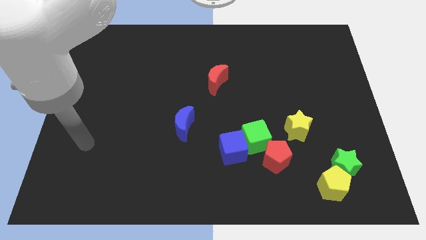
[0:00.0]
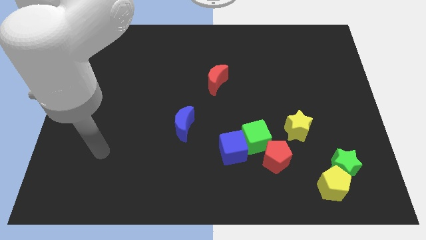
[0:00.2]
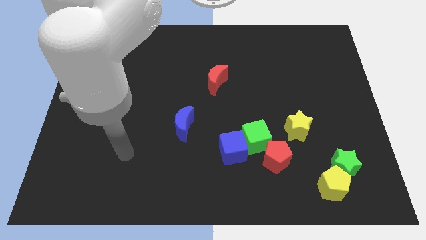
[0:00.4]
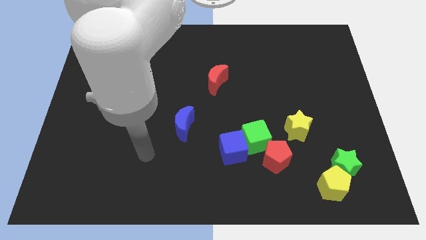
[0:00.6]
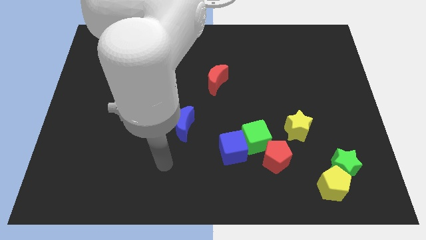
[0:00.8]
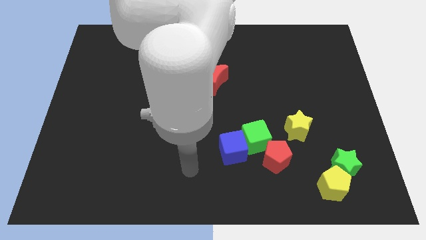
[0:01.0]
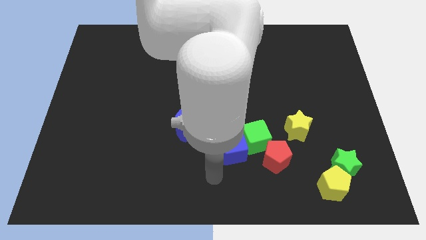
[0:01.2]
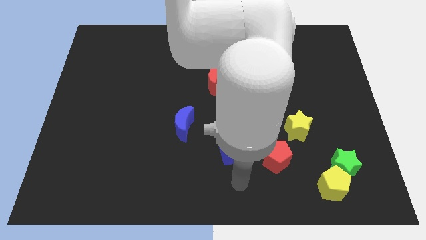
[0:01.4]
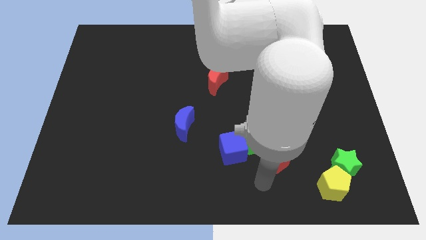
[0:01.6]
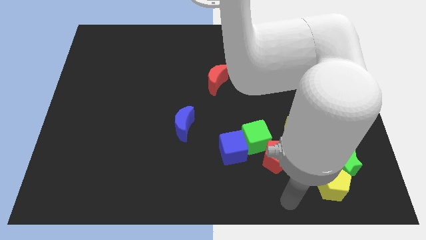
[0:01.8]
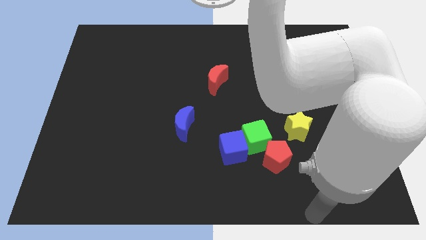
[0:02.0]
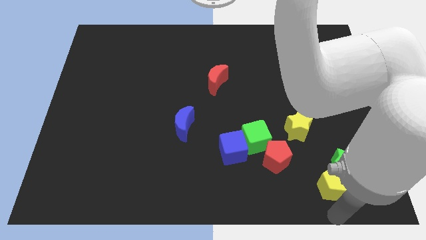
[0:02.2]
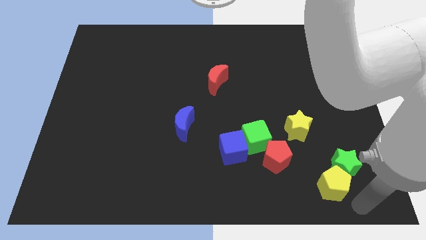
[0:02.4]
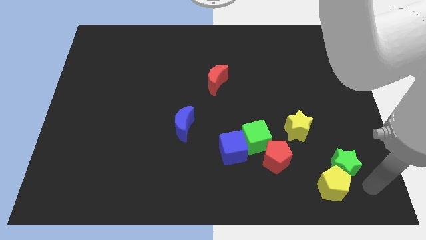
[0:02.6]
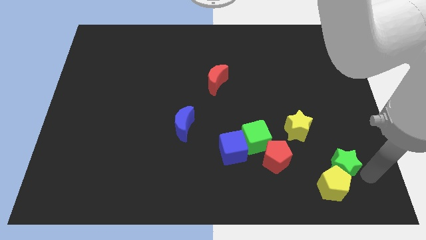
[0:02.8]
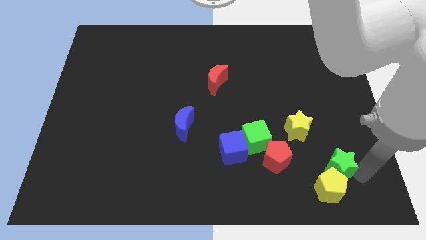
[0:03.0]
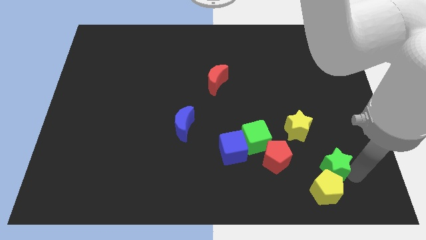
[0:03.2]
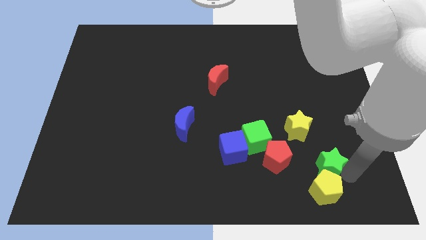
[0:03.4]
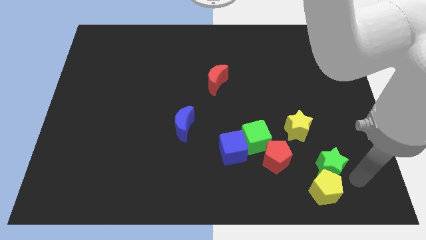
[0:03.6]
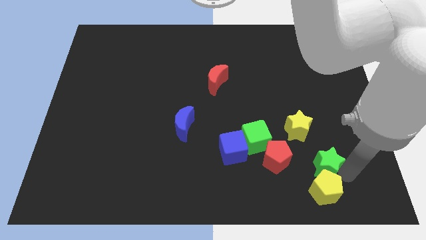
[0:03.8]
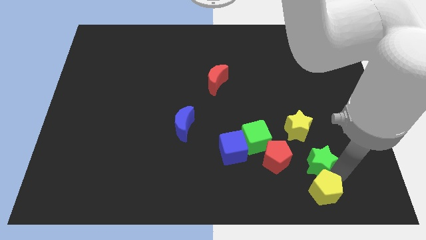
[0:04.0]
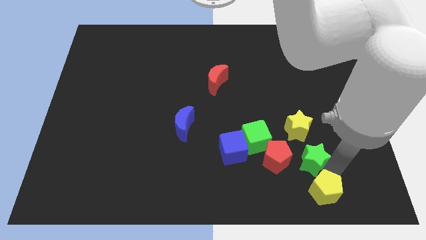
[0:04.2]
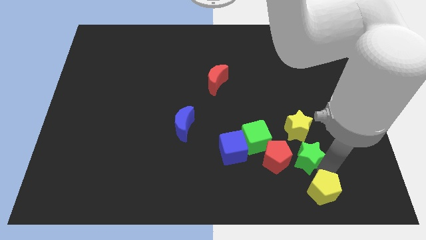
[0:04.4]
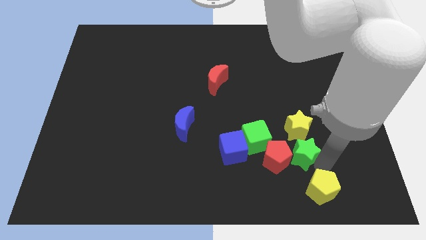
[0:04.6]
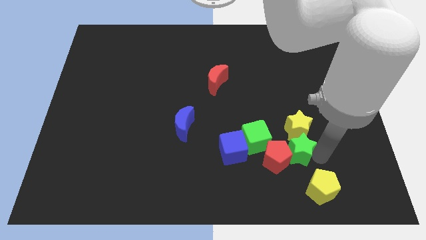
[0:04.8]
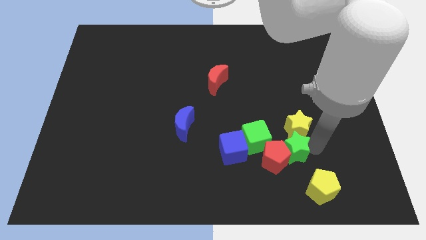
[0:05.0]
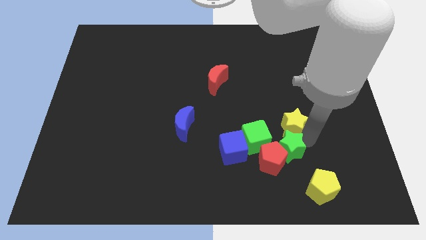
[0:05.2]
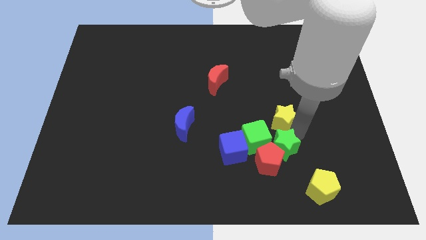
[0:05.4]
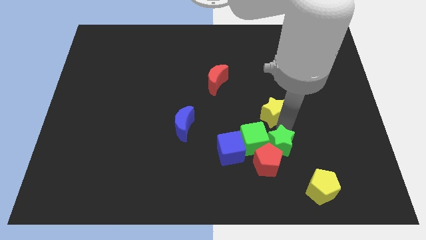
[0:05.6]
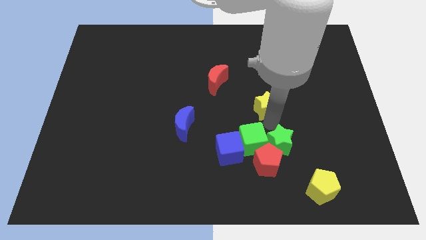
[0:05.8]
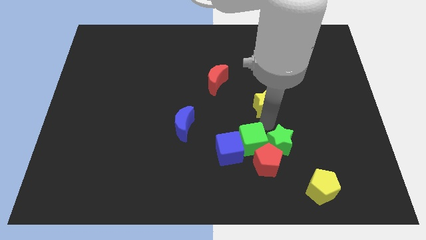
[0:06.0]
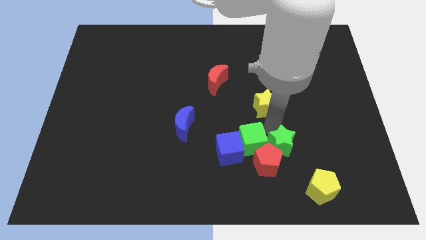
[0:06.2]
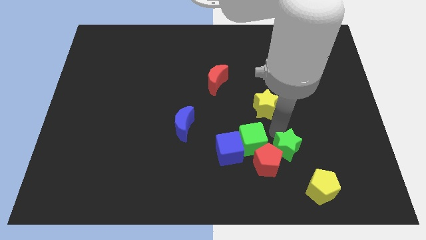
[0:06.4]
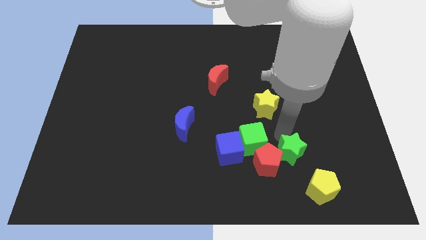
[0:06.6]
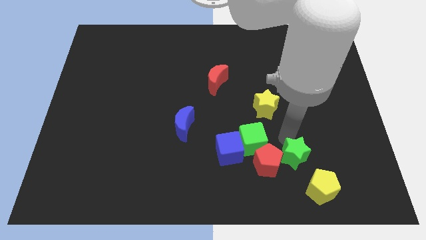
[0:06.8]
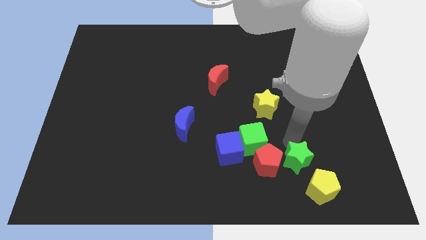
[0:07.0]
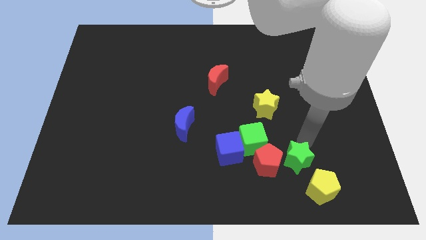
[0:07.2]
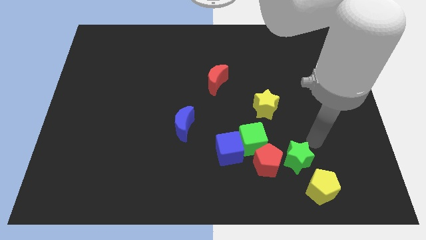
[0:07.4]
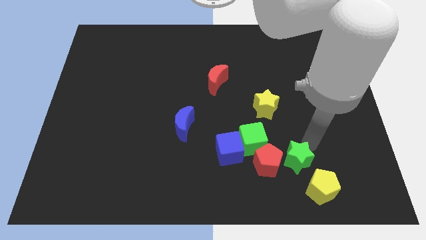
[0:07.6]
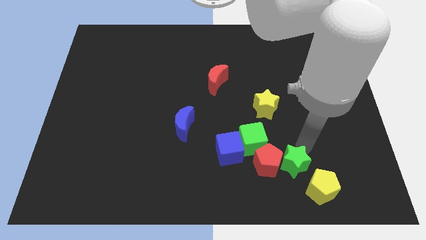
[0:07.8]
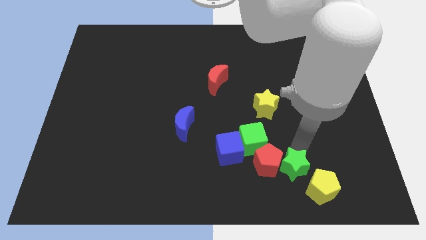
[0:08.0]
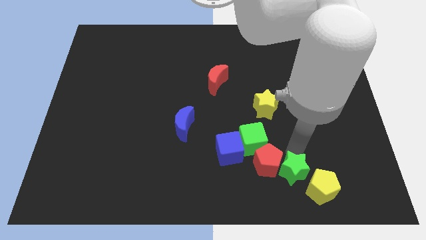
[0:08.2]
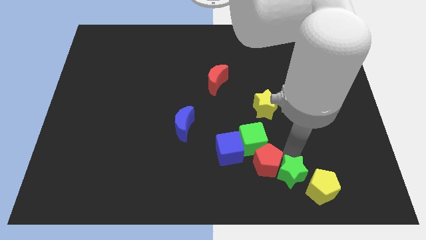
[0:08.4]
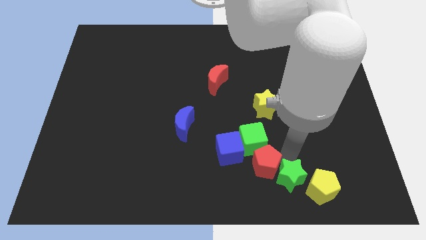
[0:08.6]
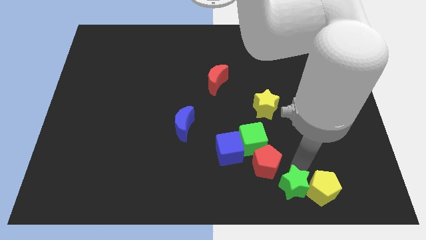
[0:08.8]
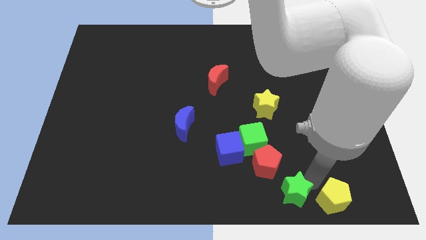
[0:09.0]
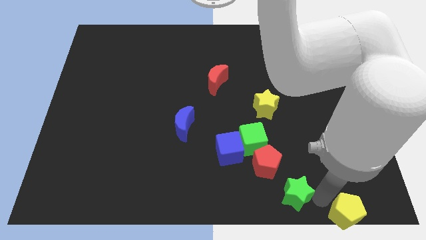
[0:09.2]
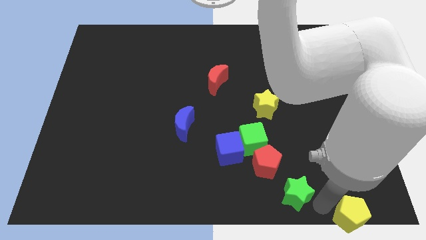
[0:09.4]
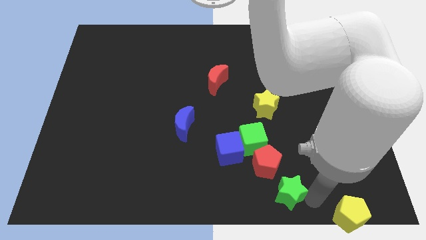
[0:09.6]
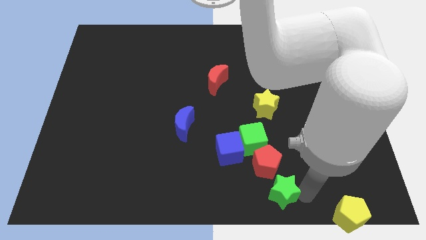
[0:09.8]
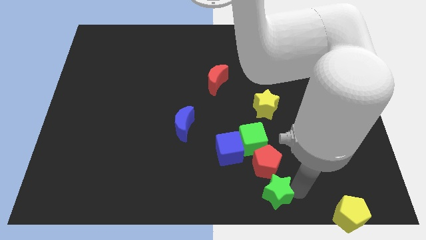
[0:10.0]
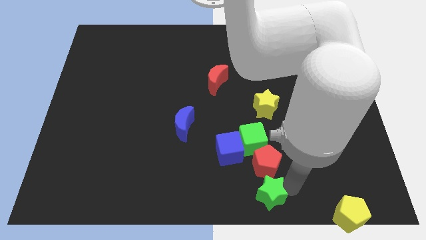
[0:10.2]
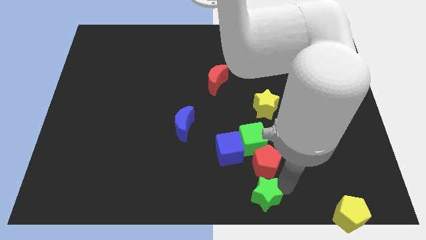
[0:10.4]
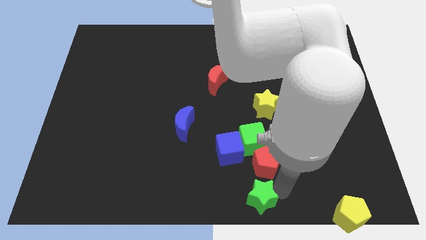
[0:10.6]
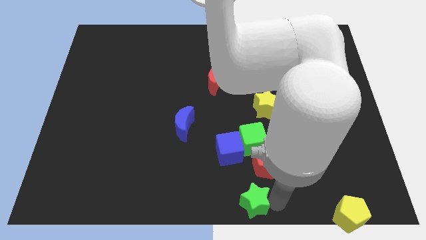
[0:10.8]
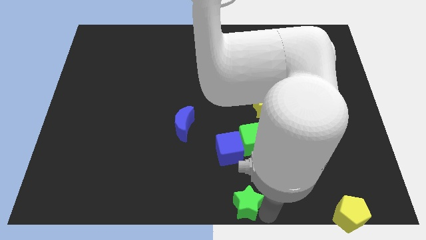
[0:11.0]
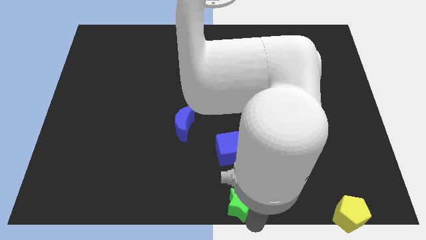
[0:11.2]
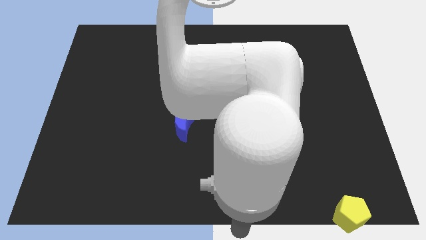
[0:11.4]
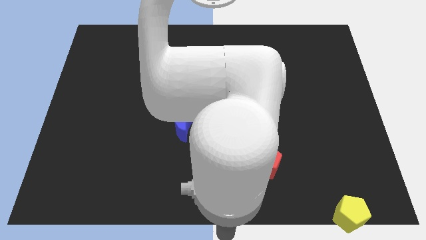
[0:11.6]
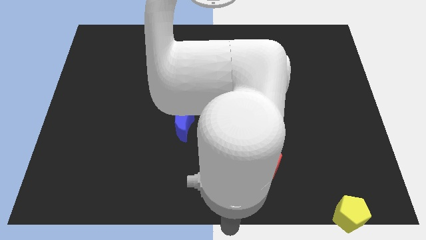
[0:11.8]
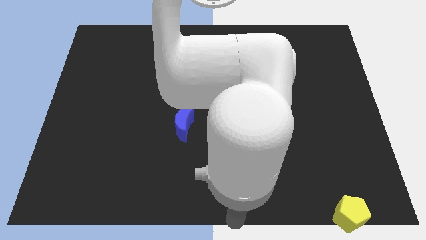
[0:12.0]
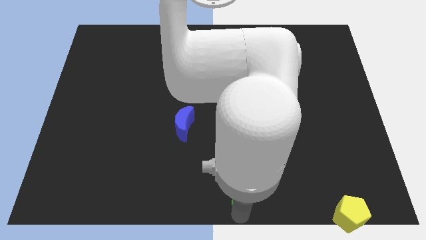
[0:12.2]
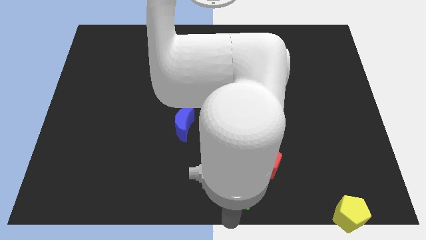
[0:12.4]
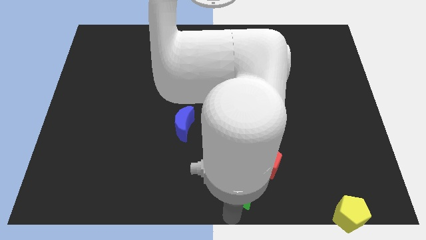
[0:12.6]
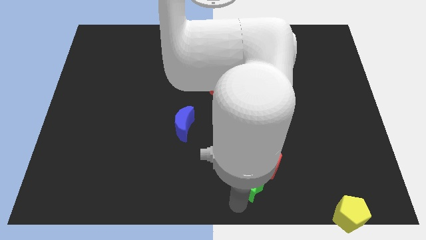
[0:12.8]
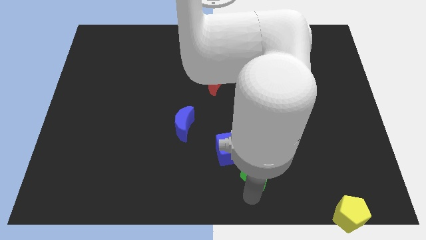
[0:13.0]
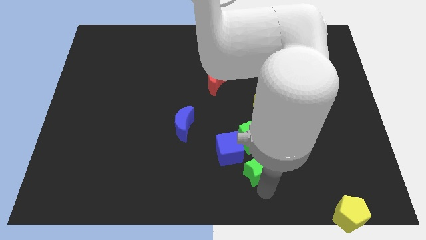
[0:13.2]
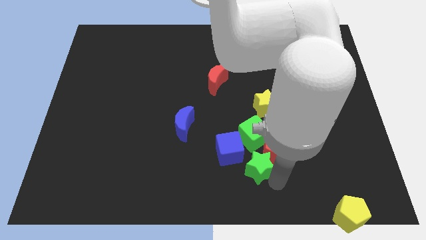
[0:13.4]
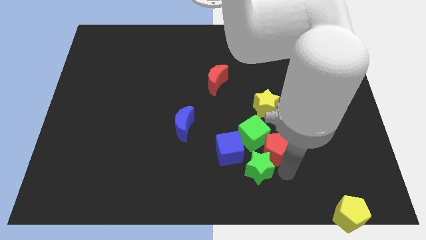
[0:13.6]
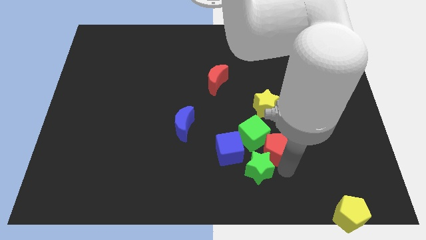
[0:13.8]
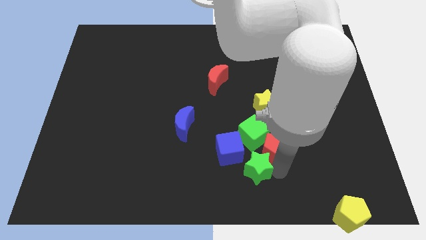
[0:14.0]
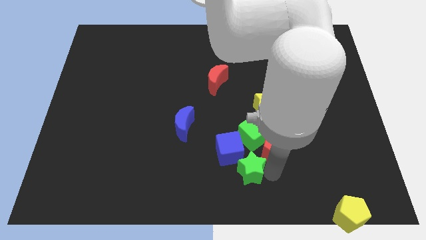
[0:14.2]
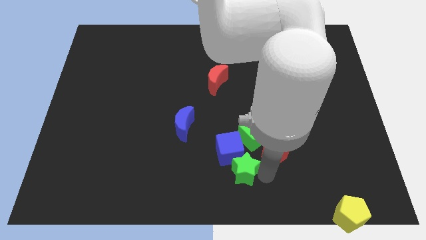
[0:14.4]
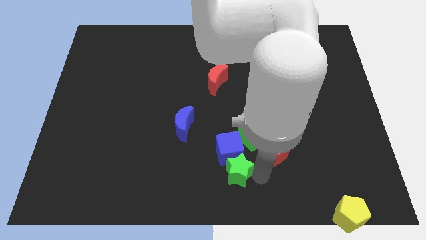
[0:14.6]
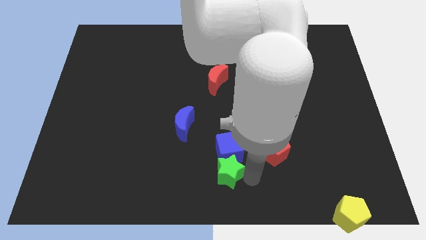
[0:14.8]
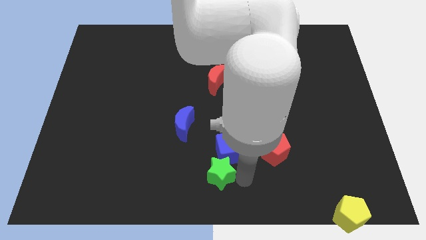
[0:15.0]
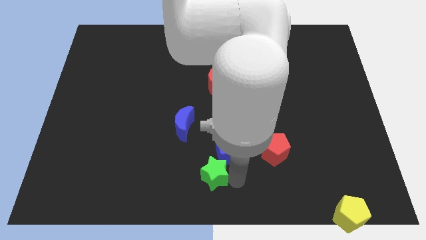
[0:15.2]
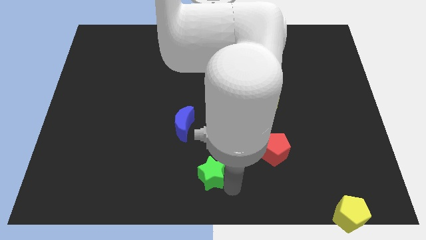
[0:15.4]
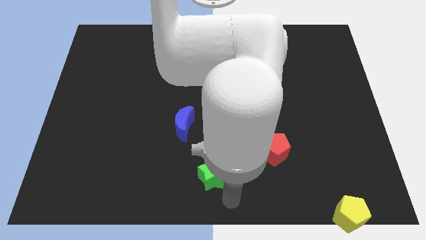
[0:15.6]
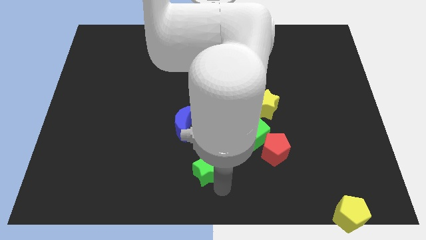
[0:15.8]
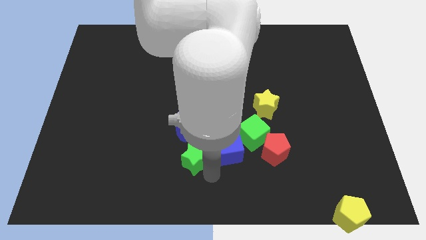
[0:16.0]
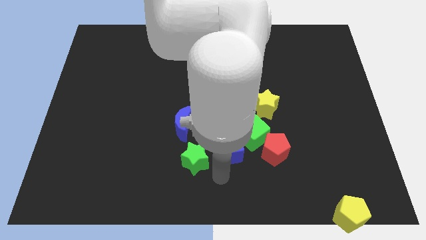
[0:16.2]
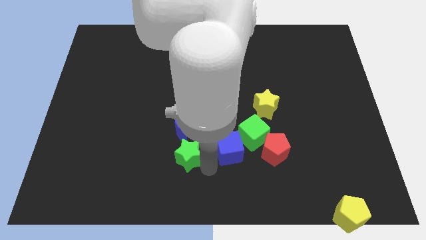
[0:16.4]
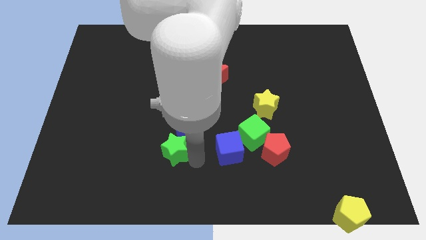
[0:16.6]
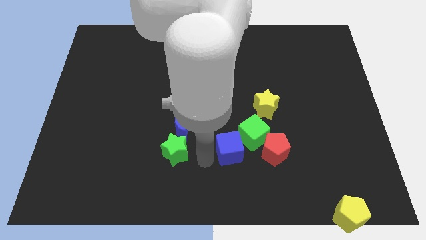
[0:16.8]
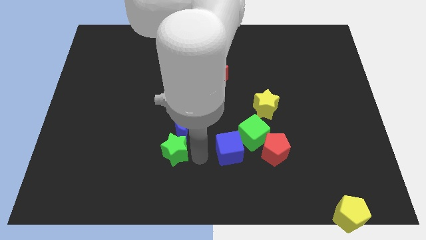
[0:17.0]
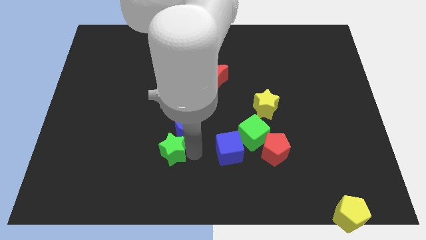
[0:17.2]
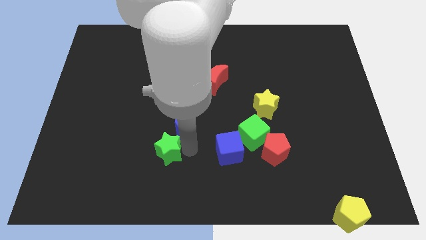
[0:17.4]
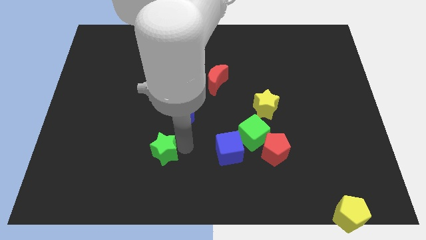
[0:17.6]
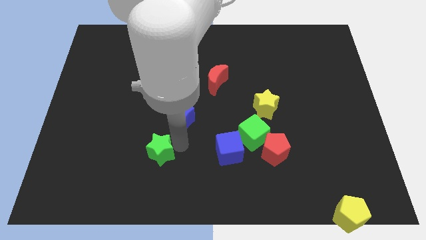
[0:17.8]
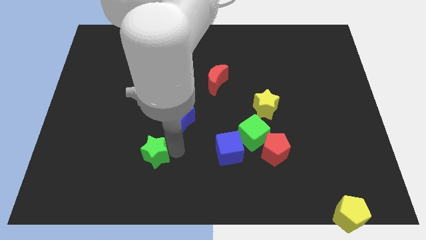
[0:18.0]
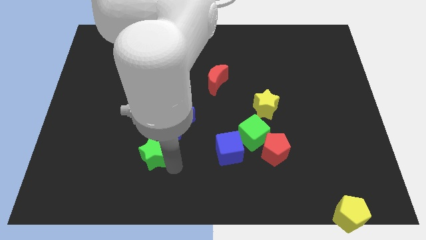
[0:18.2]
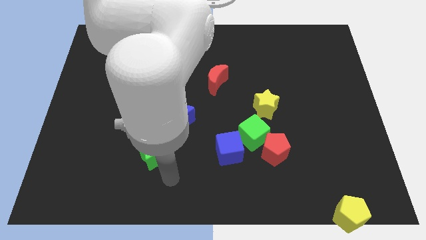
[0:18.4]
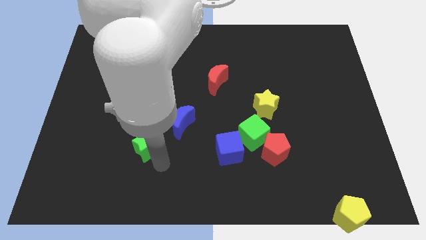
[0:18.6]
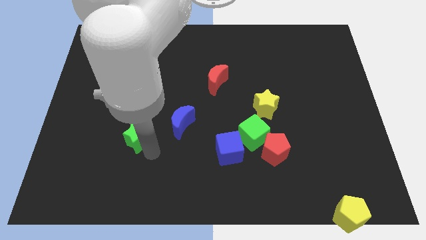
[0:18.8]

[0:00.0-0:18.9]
push the green star just left of the blue moon
